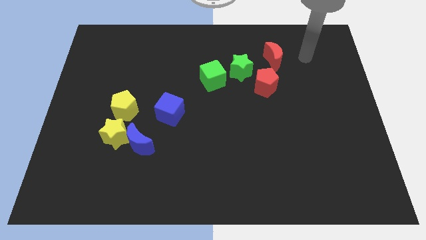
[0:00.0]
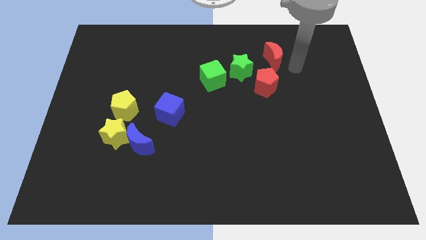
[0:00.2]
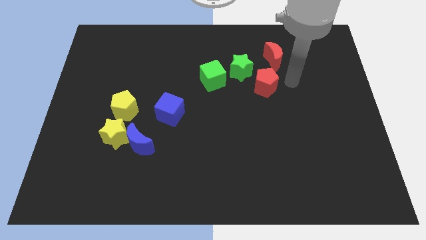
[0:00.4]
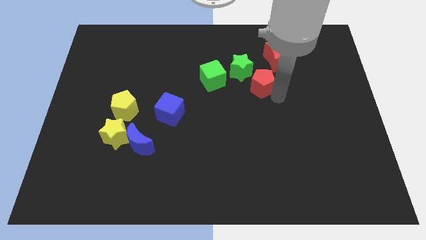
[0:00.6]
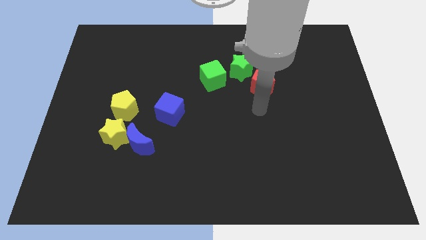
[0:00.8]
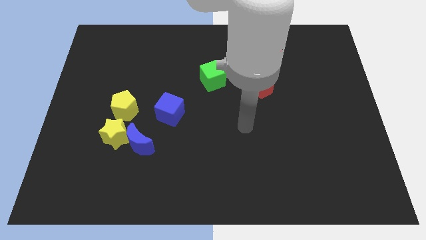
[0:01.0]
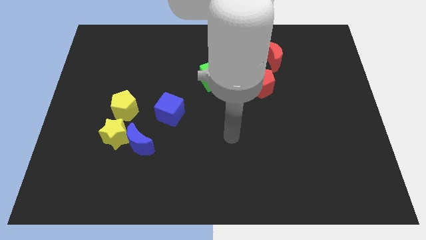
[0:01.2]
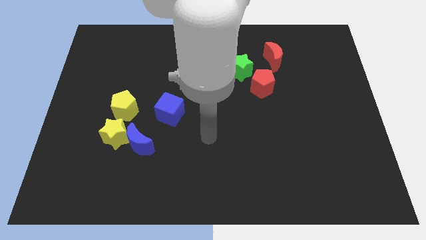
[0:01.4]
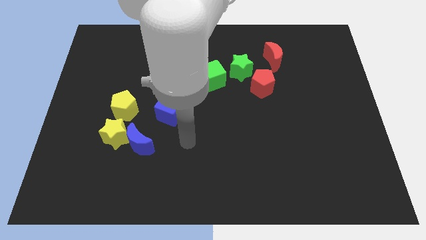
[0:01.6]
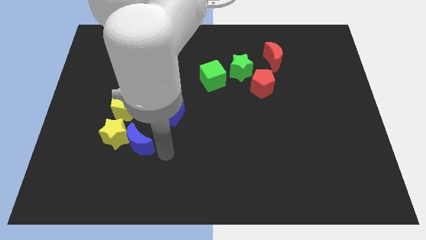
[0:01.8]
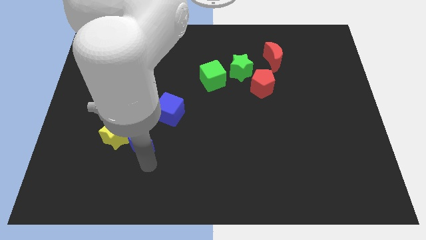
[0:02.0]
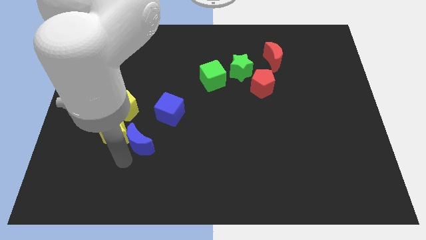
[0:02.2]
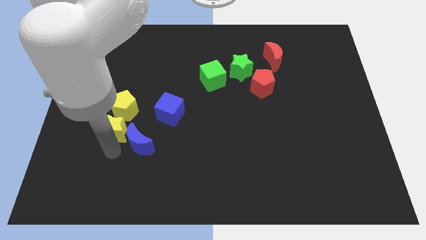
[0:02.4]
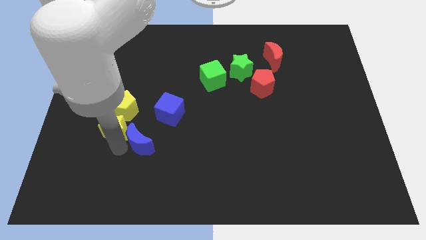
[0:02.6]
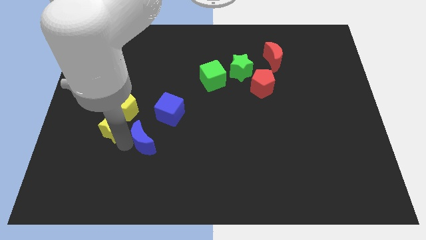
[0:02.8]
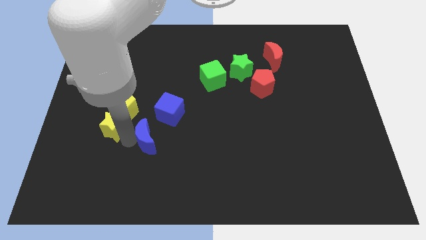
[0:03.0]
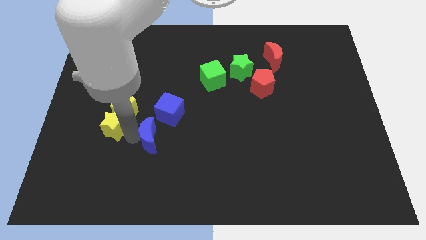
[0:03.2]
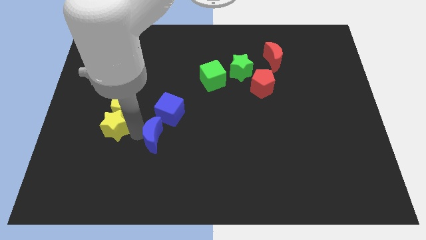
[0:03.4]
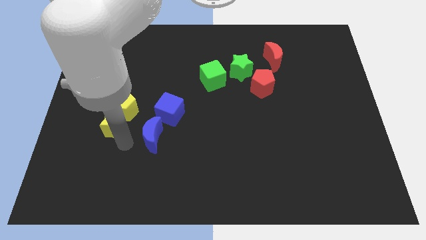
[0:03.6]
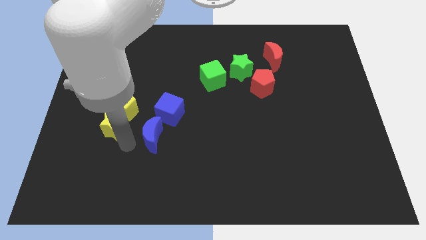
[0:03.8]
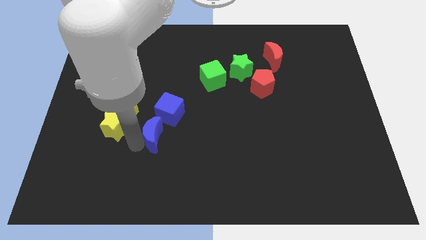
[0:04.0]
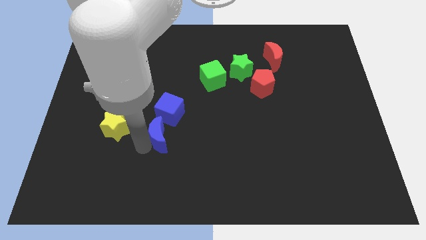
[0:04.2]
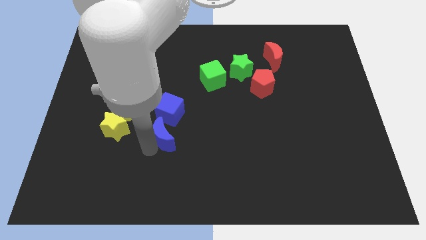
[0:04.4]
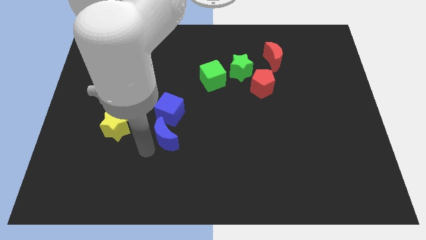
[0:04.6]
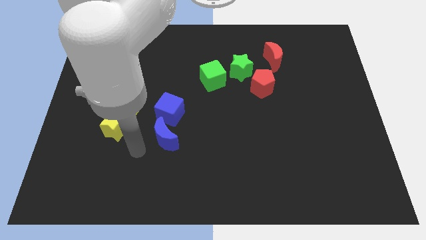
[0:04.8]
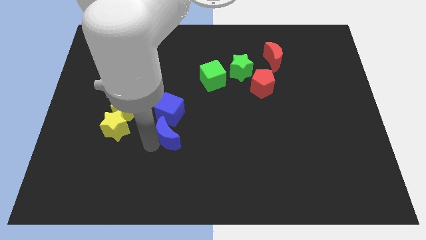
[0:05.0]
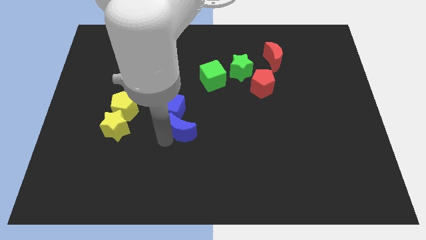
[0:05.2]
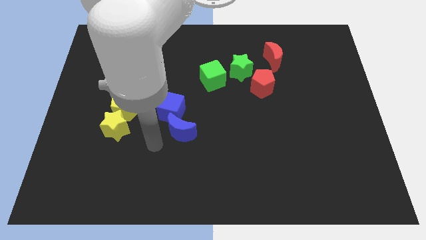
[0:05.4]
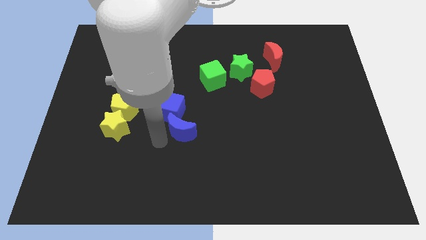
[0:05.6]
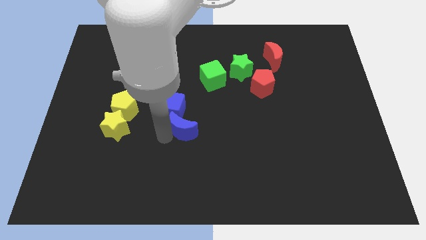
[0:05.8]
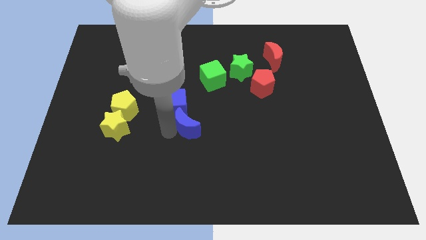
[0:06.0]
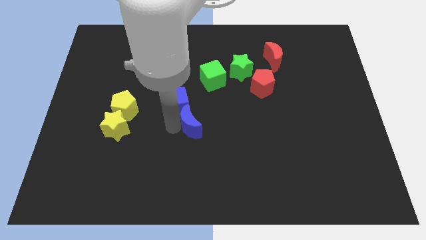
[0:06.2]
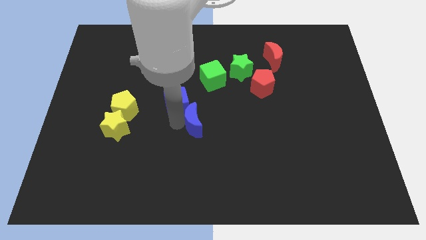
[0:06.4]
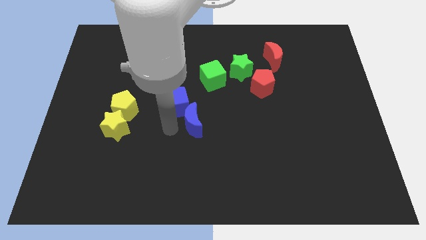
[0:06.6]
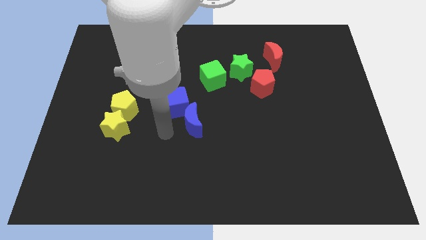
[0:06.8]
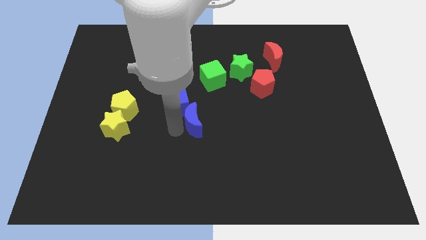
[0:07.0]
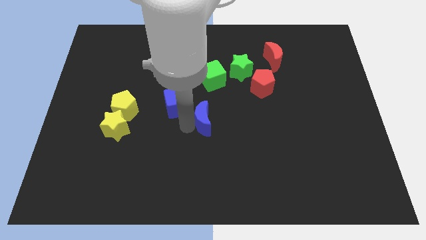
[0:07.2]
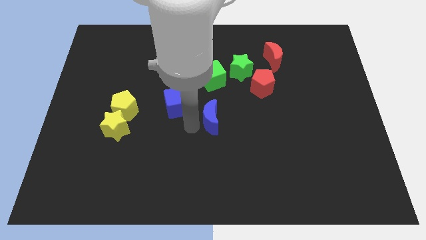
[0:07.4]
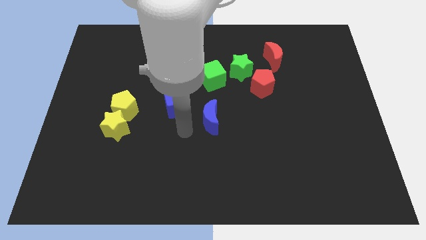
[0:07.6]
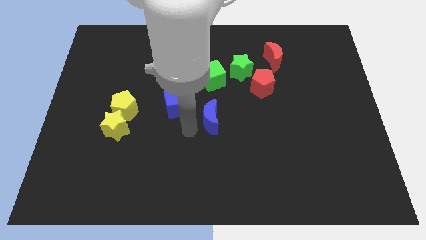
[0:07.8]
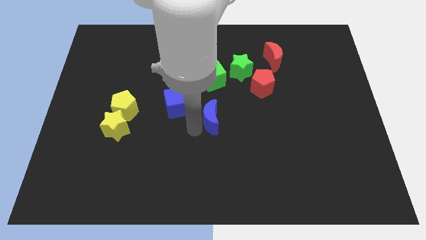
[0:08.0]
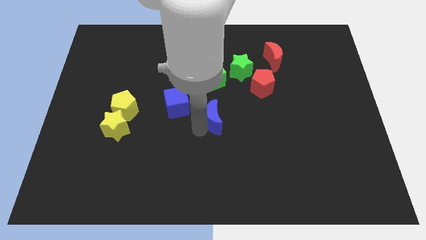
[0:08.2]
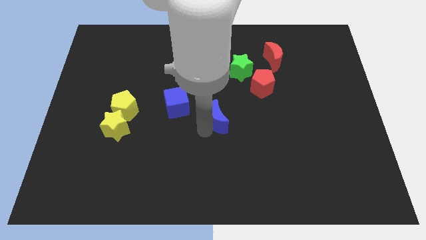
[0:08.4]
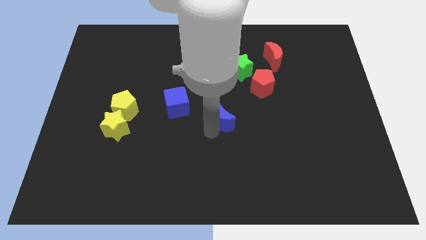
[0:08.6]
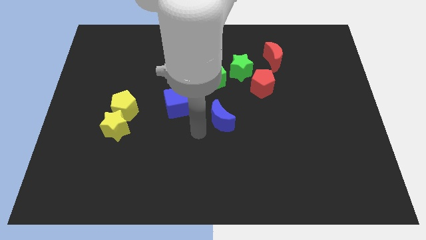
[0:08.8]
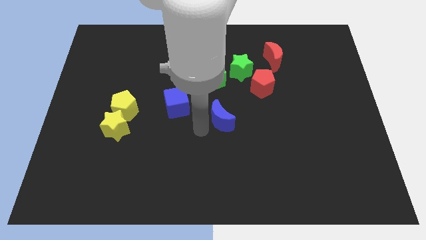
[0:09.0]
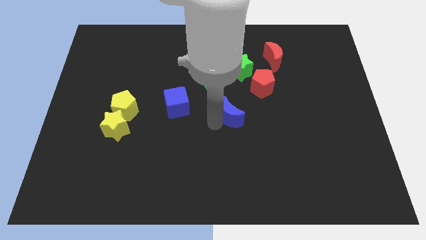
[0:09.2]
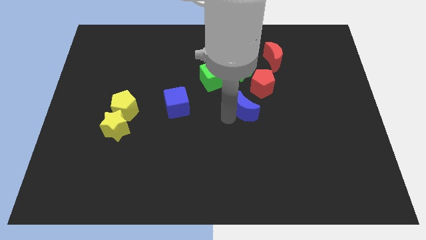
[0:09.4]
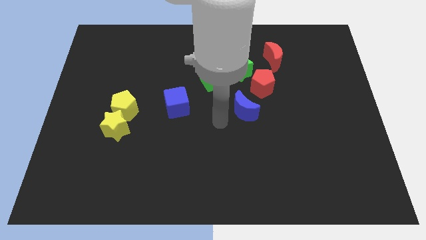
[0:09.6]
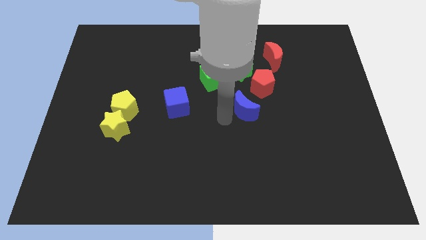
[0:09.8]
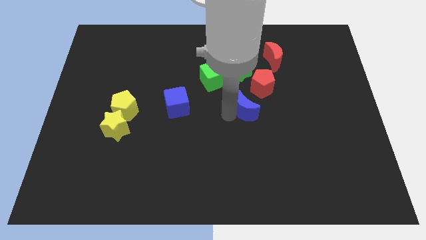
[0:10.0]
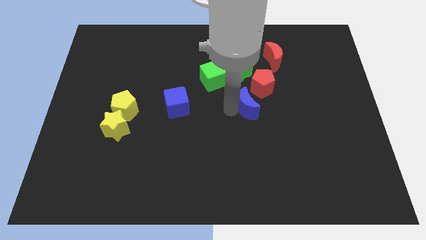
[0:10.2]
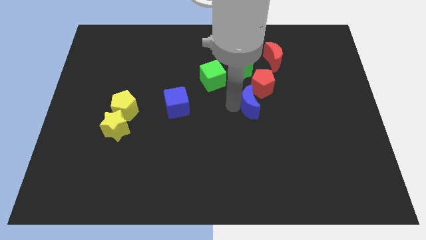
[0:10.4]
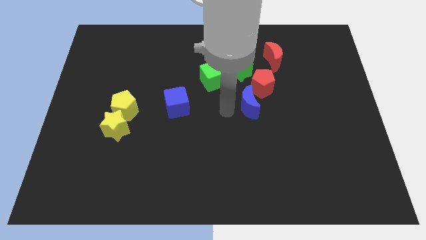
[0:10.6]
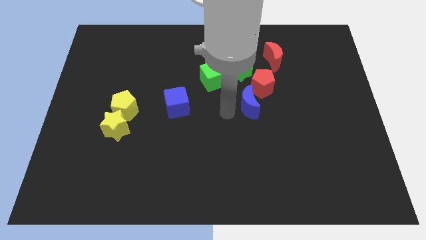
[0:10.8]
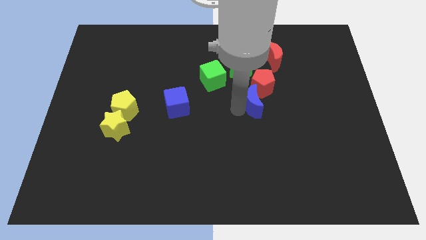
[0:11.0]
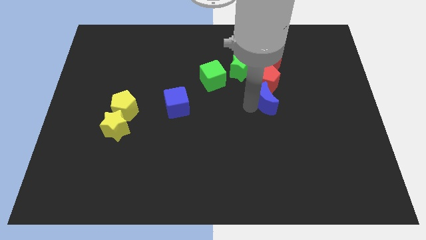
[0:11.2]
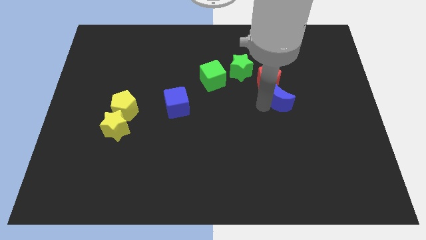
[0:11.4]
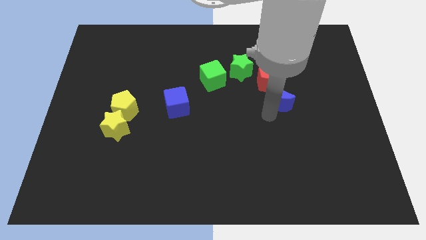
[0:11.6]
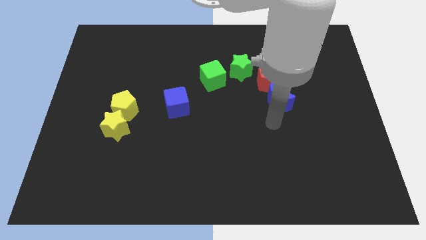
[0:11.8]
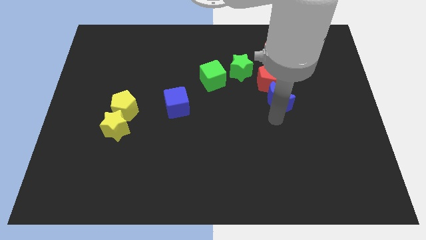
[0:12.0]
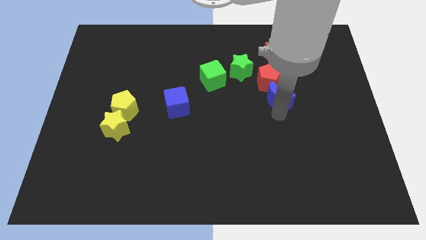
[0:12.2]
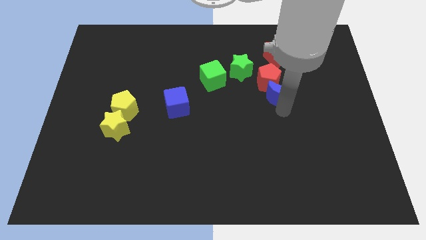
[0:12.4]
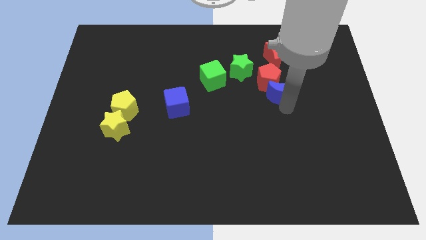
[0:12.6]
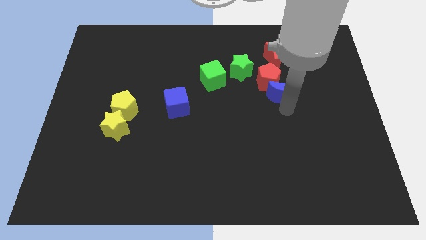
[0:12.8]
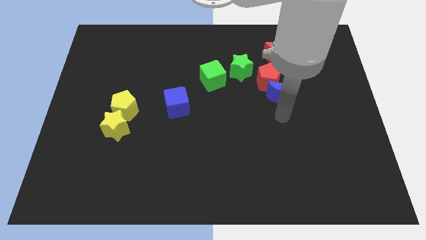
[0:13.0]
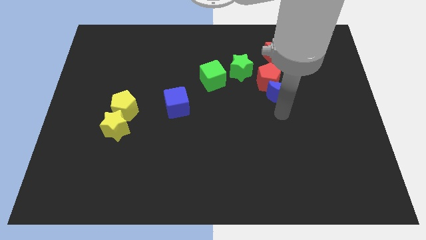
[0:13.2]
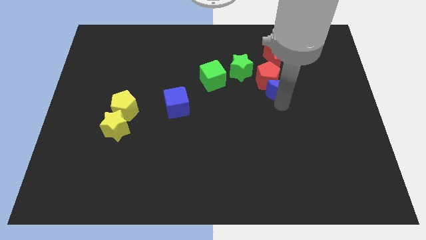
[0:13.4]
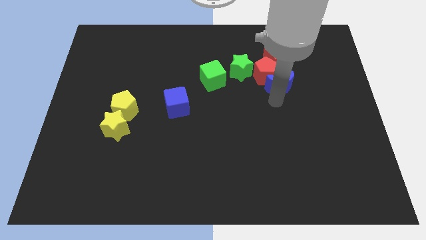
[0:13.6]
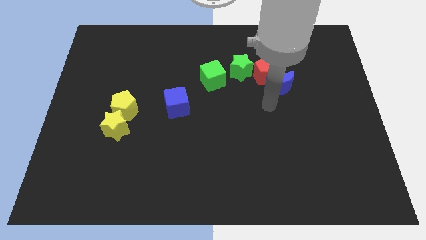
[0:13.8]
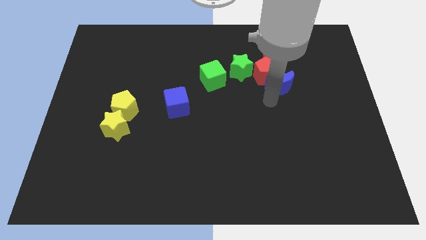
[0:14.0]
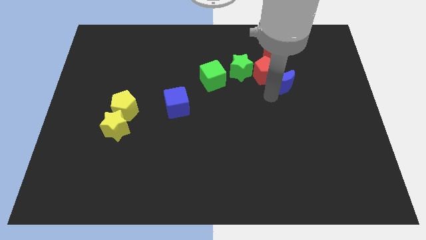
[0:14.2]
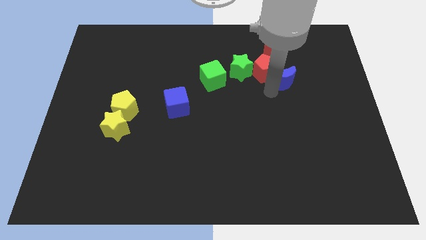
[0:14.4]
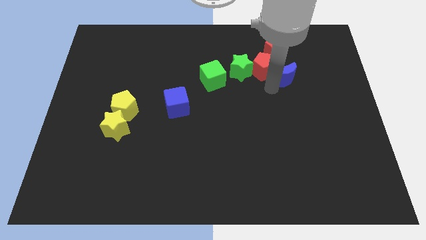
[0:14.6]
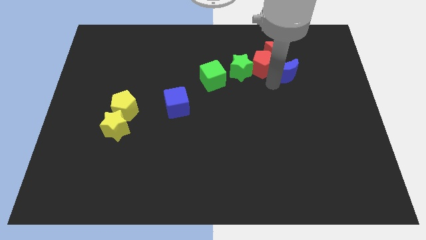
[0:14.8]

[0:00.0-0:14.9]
move the blue moon next to the red moon

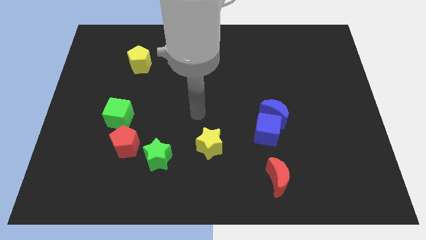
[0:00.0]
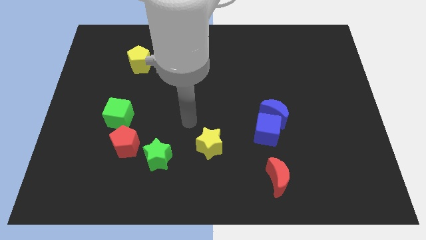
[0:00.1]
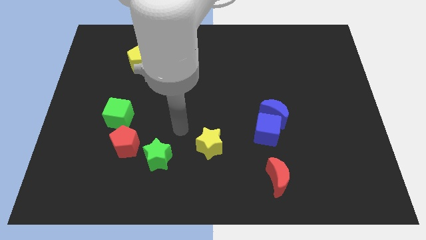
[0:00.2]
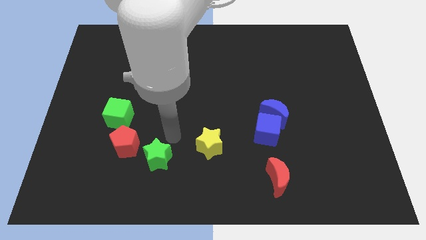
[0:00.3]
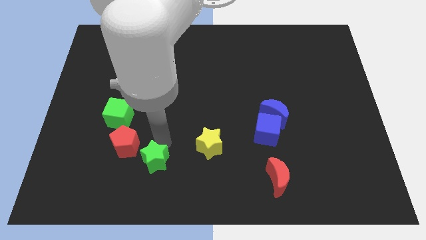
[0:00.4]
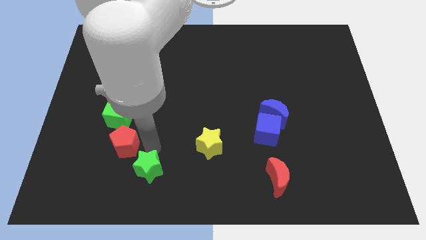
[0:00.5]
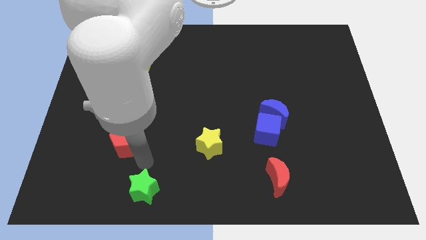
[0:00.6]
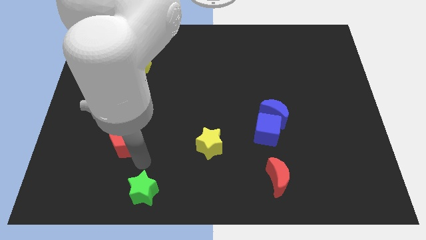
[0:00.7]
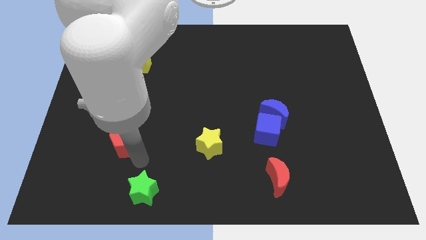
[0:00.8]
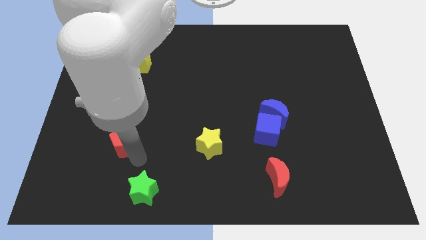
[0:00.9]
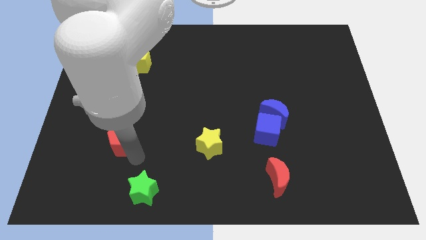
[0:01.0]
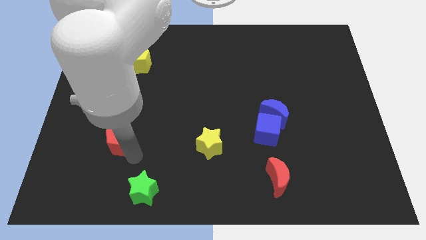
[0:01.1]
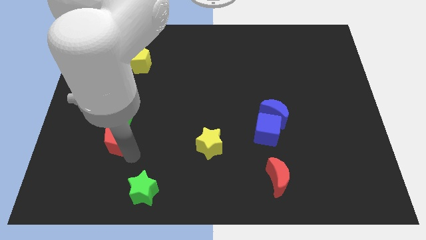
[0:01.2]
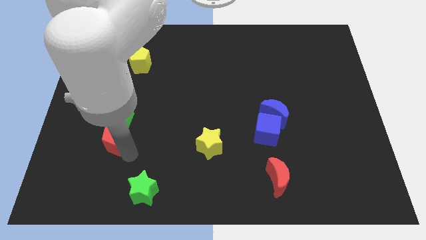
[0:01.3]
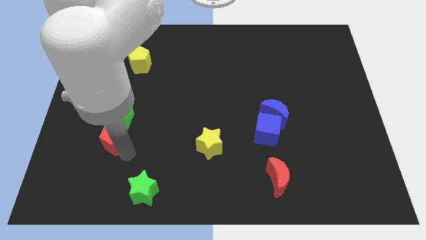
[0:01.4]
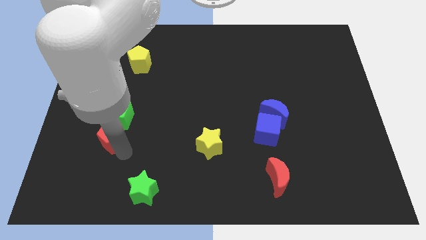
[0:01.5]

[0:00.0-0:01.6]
slide the red pentagon close to the green cube
